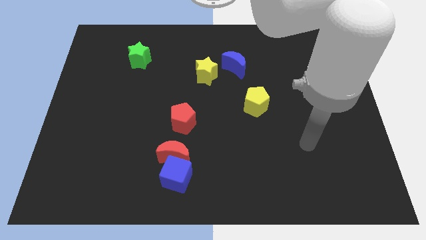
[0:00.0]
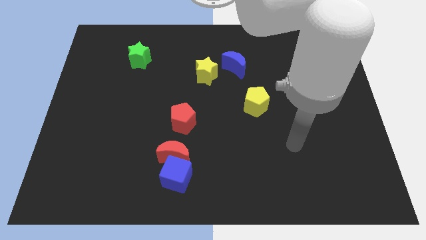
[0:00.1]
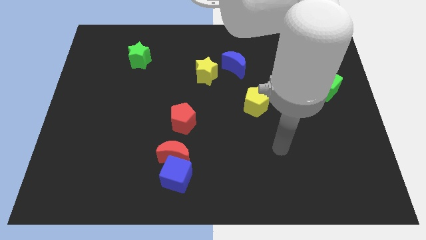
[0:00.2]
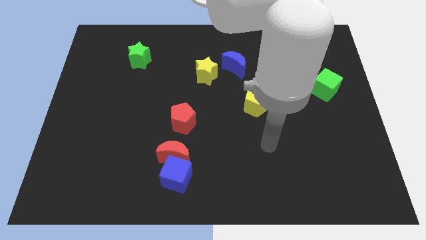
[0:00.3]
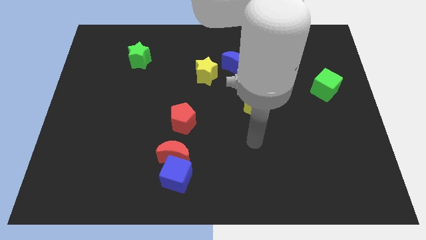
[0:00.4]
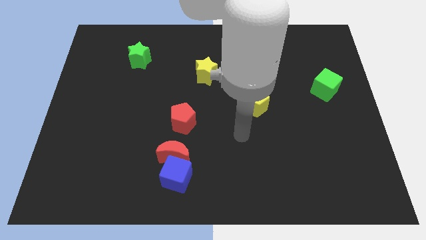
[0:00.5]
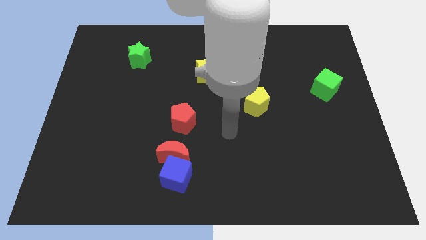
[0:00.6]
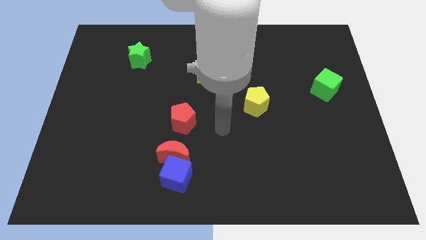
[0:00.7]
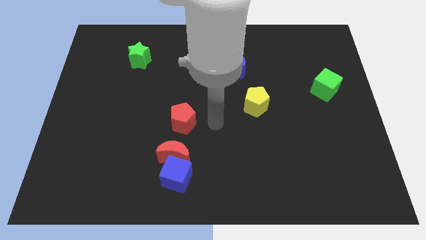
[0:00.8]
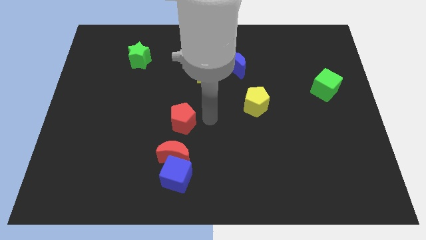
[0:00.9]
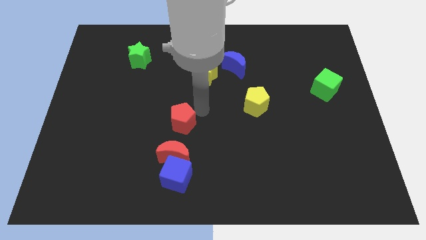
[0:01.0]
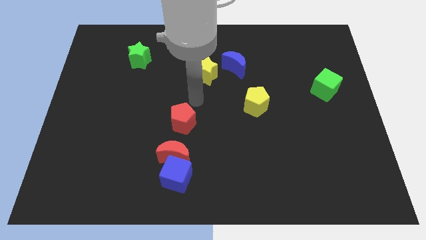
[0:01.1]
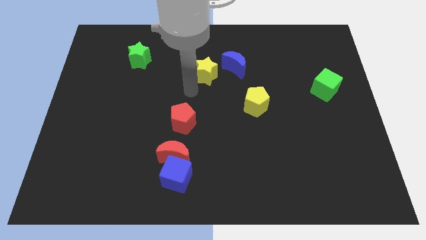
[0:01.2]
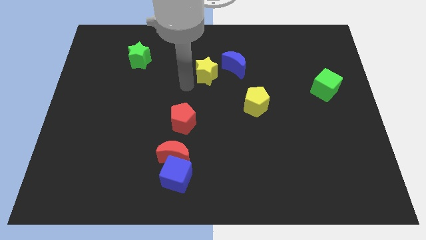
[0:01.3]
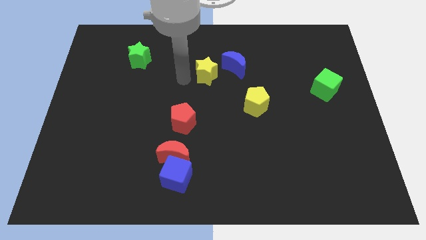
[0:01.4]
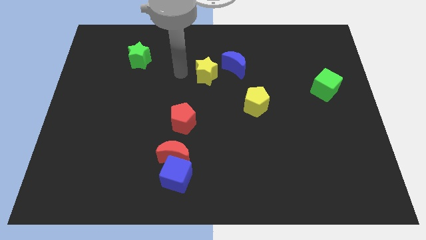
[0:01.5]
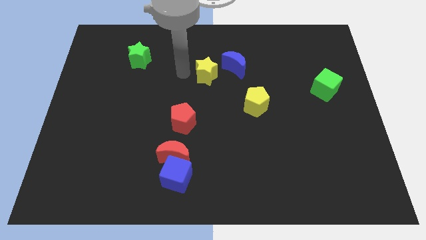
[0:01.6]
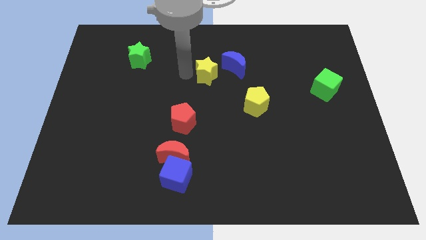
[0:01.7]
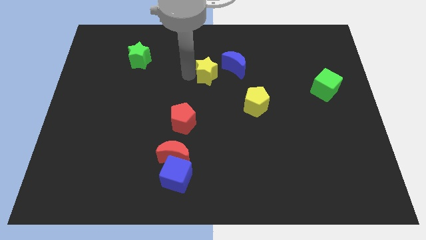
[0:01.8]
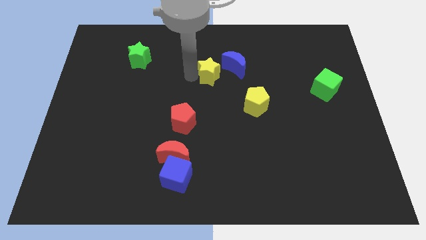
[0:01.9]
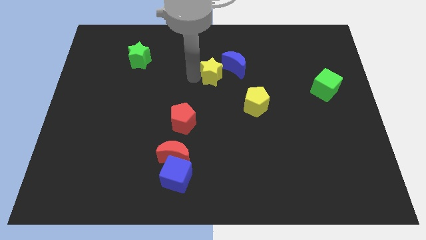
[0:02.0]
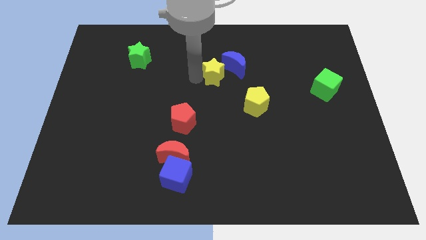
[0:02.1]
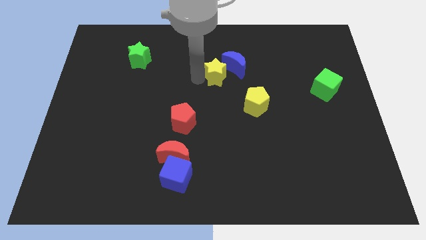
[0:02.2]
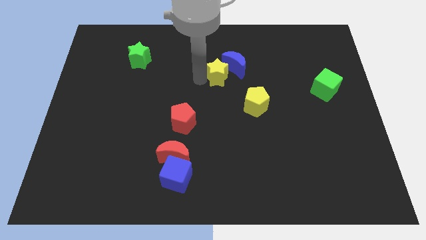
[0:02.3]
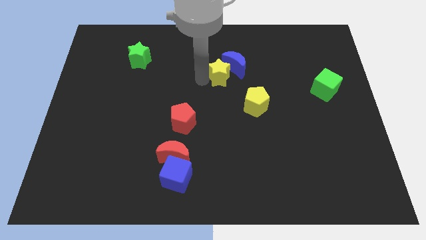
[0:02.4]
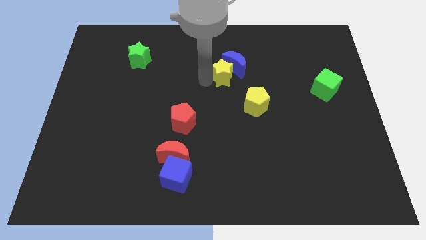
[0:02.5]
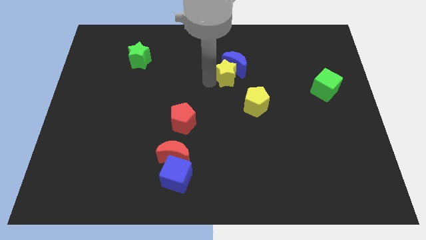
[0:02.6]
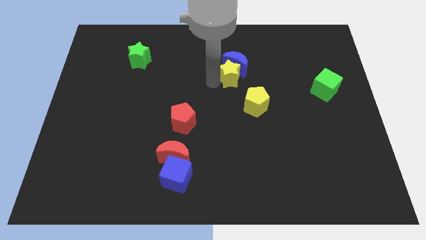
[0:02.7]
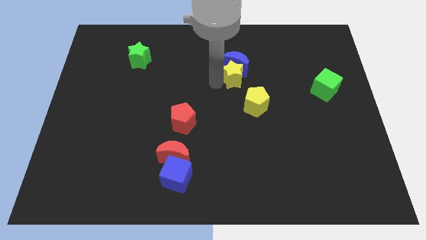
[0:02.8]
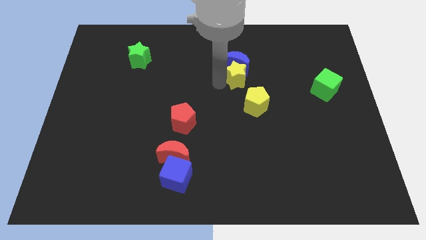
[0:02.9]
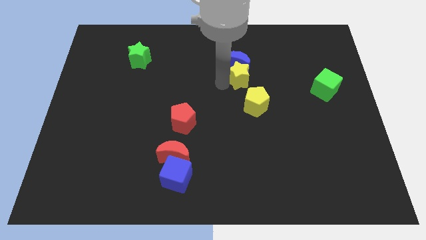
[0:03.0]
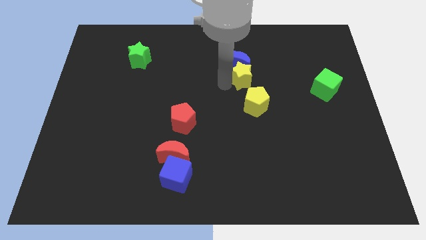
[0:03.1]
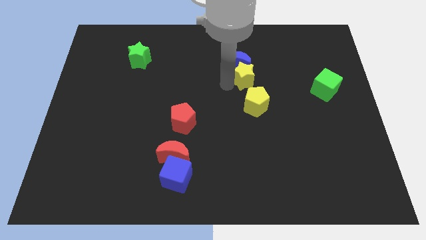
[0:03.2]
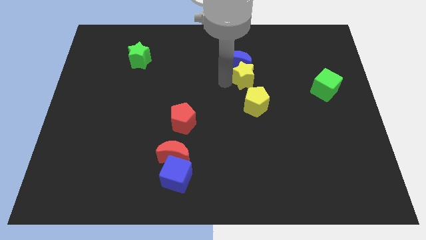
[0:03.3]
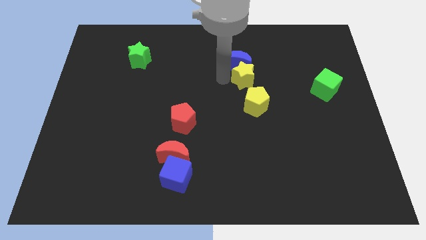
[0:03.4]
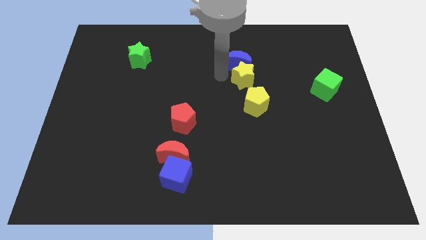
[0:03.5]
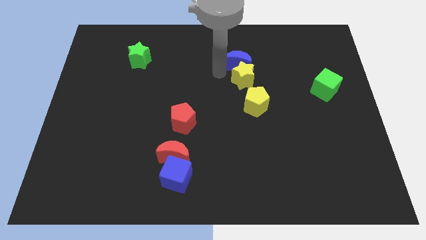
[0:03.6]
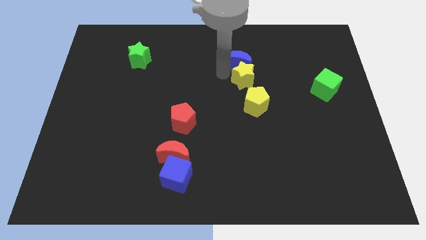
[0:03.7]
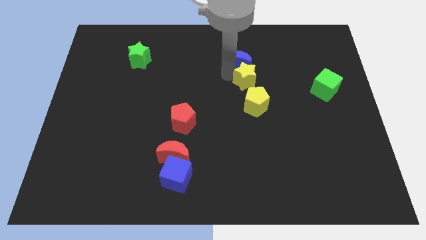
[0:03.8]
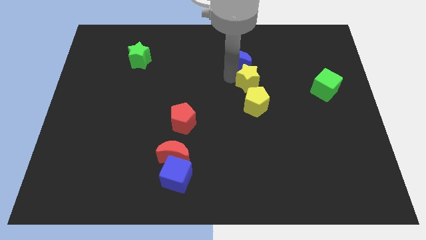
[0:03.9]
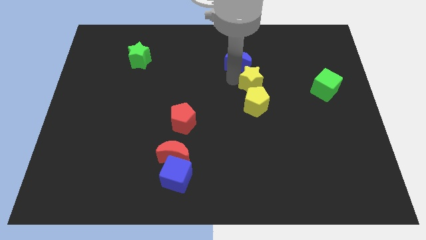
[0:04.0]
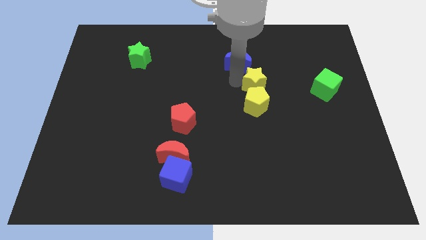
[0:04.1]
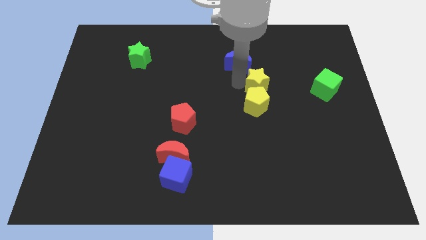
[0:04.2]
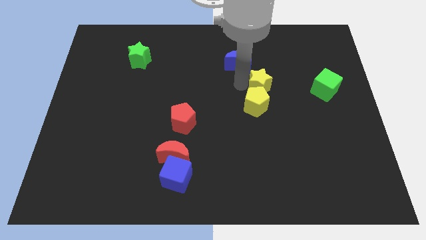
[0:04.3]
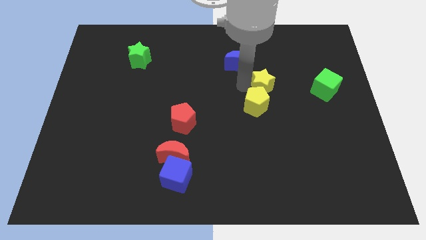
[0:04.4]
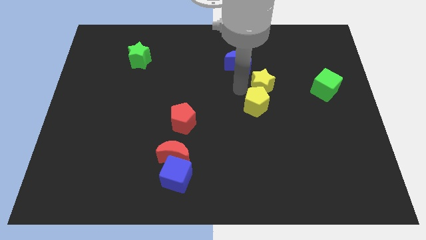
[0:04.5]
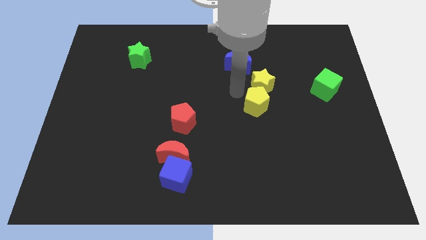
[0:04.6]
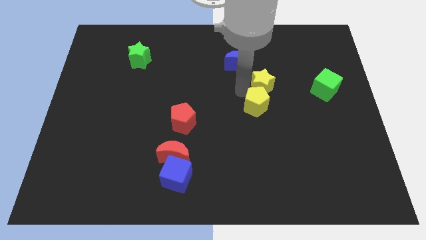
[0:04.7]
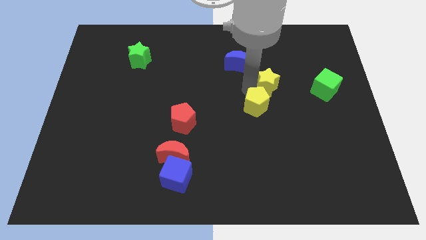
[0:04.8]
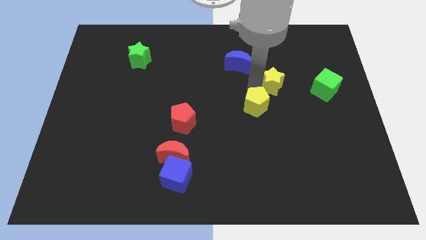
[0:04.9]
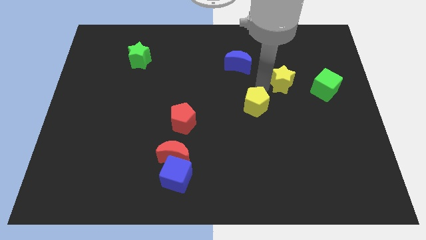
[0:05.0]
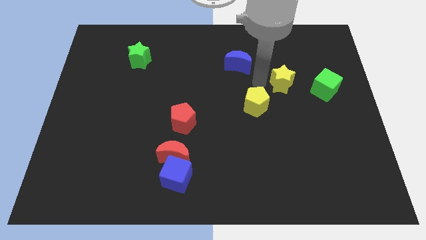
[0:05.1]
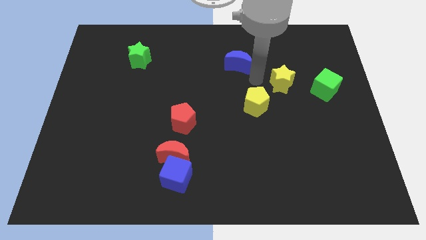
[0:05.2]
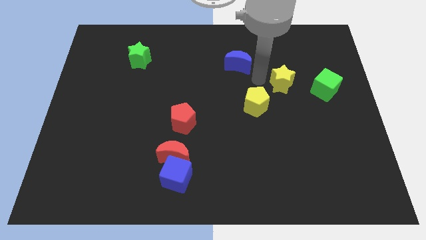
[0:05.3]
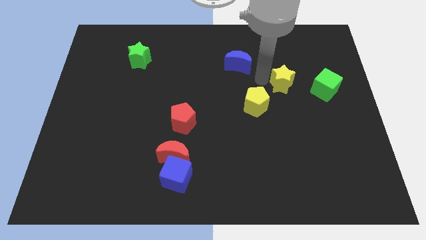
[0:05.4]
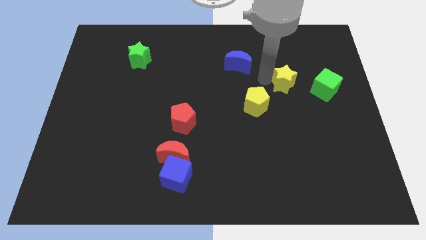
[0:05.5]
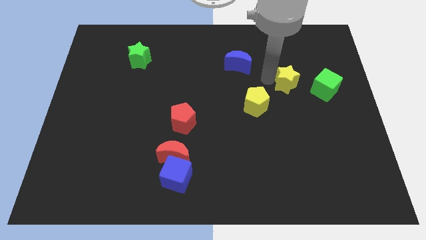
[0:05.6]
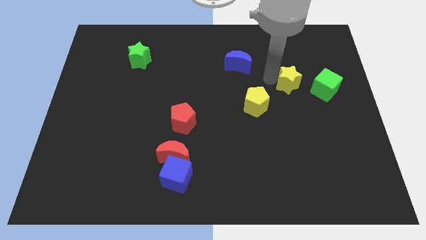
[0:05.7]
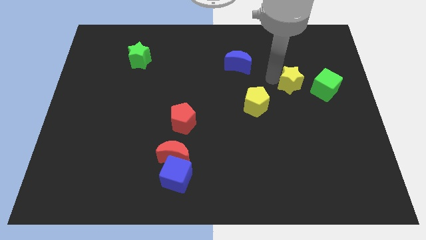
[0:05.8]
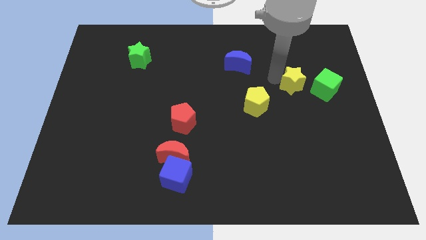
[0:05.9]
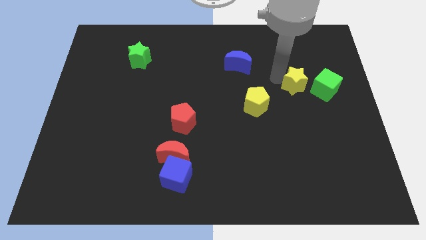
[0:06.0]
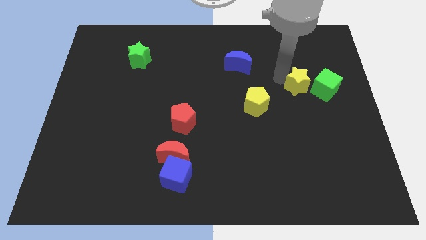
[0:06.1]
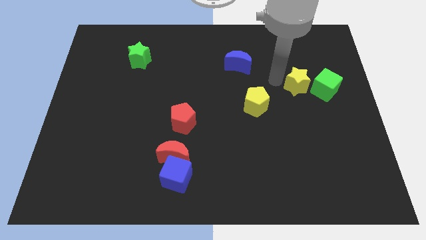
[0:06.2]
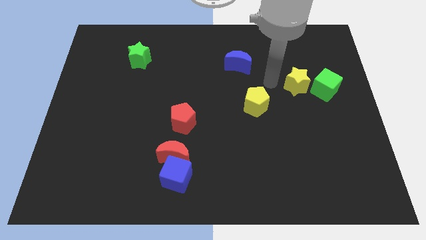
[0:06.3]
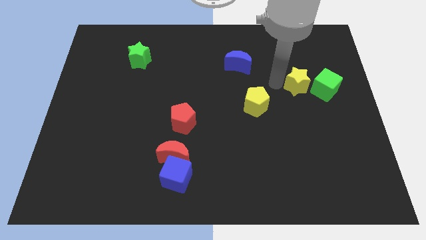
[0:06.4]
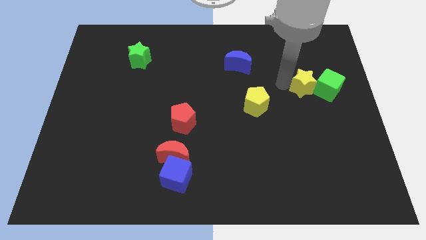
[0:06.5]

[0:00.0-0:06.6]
push the yellow star next to the green cube

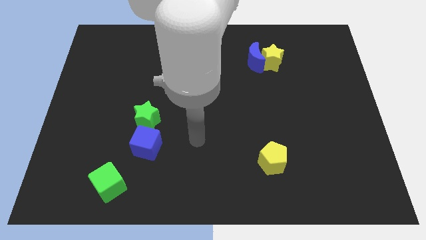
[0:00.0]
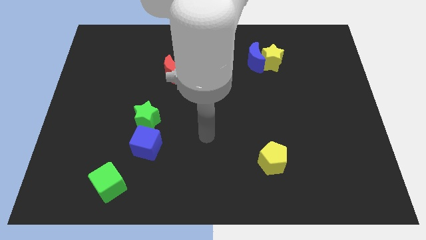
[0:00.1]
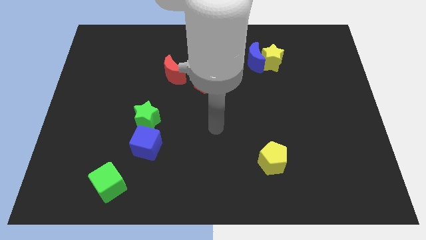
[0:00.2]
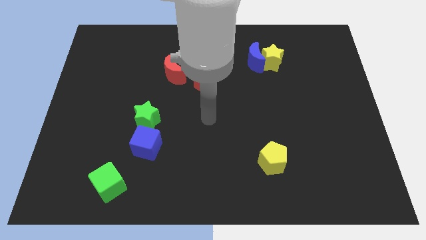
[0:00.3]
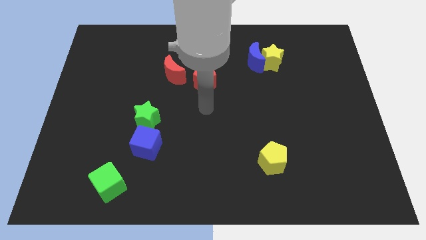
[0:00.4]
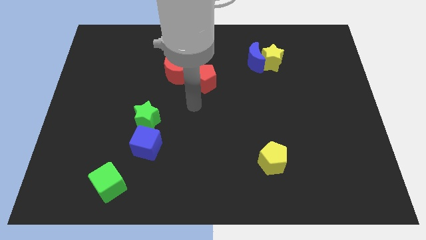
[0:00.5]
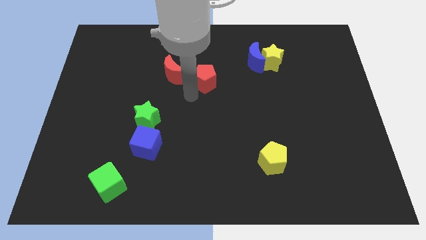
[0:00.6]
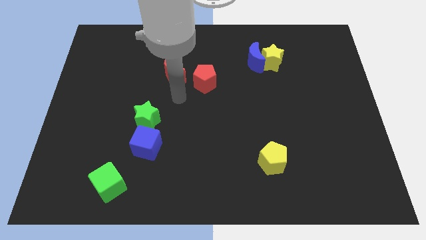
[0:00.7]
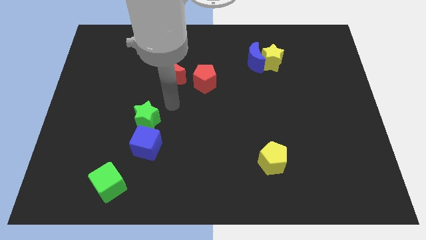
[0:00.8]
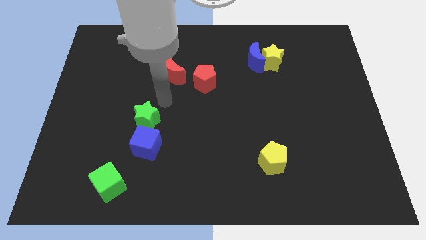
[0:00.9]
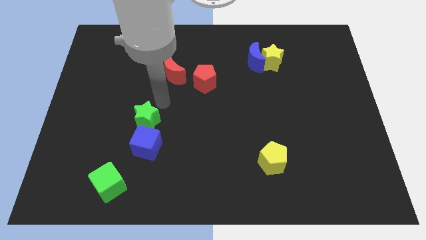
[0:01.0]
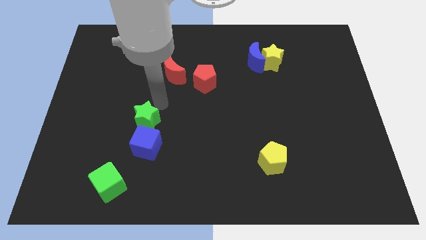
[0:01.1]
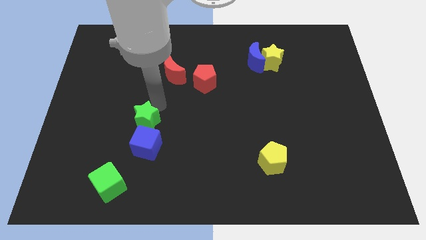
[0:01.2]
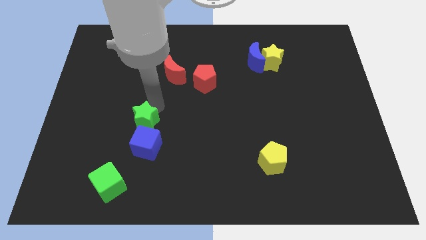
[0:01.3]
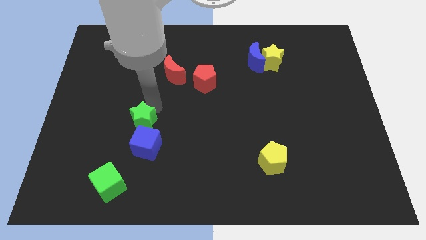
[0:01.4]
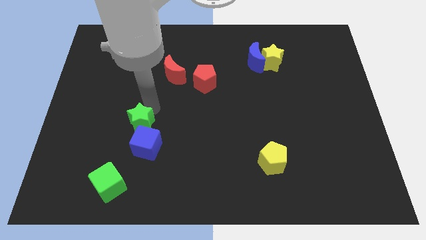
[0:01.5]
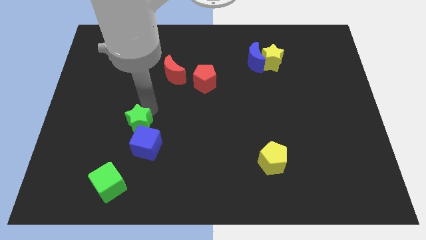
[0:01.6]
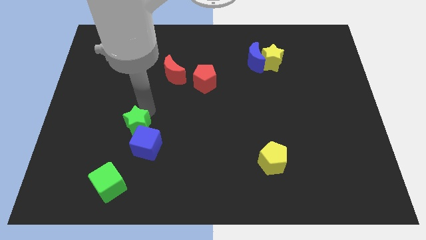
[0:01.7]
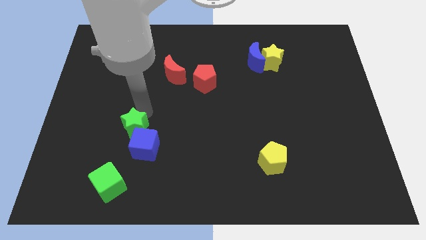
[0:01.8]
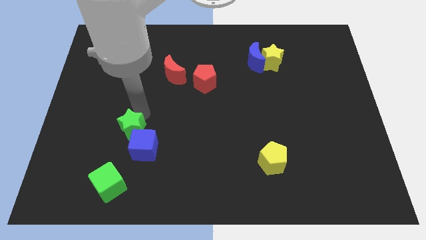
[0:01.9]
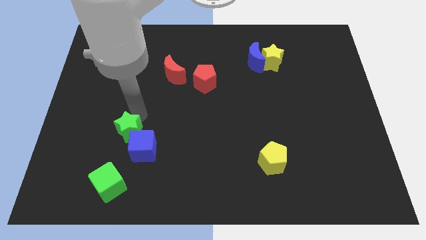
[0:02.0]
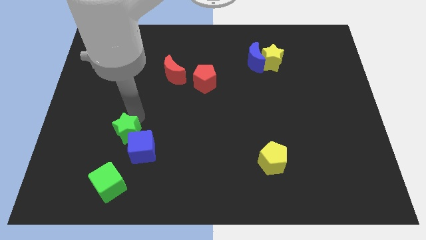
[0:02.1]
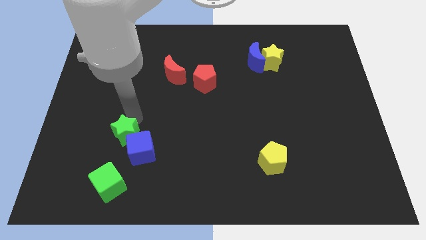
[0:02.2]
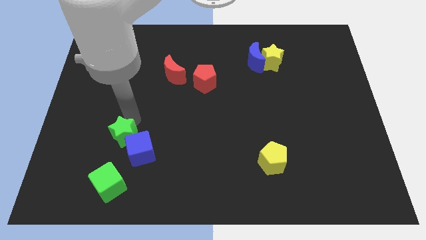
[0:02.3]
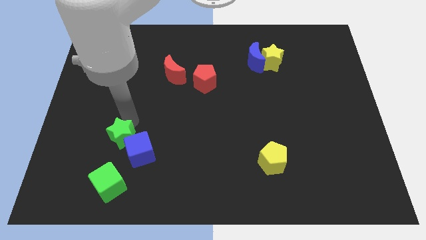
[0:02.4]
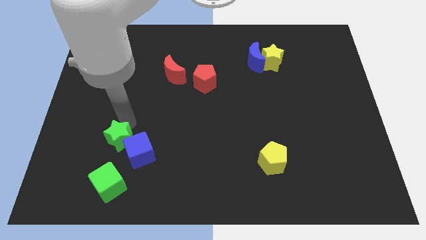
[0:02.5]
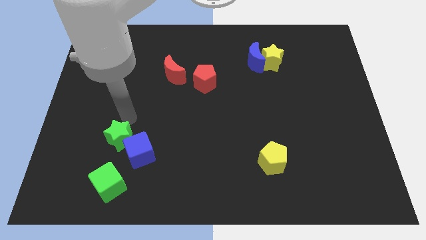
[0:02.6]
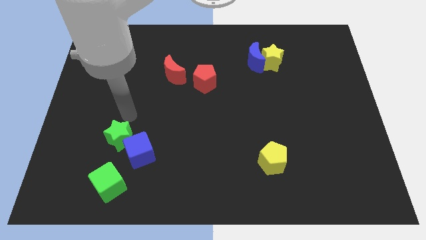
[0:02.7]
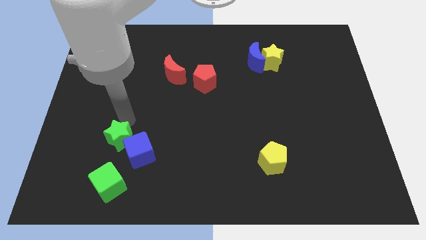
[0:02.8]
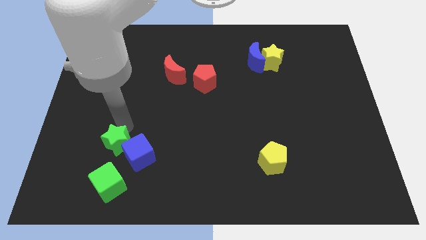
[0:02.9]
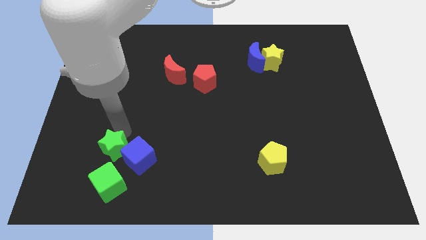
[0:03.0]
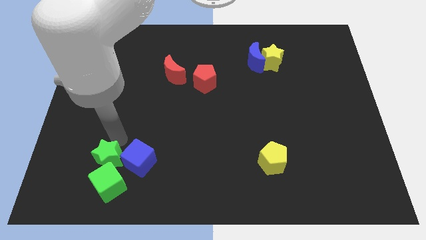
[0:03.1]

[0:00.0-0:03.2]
slide the green star towards the green cube
